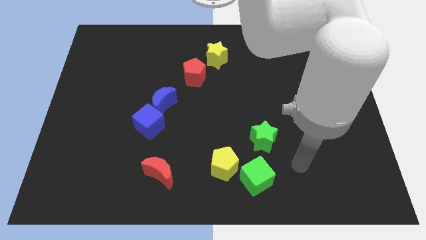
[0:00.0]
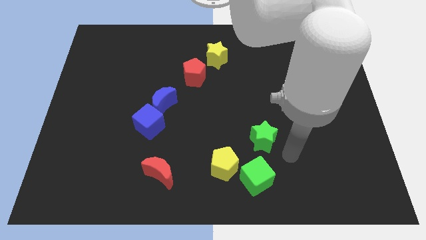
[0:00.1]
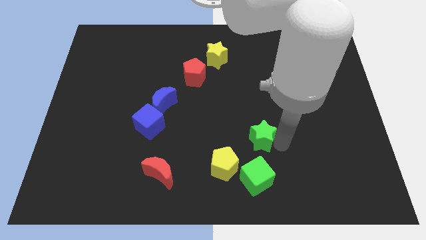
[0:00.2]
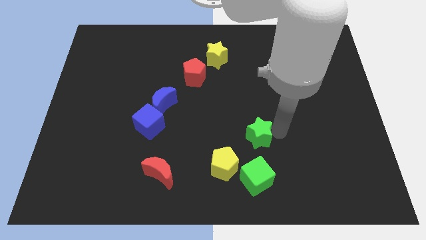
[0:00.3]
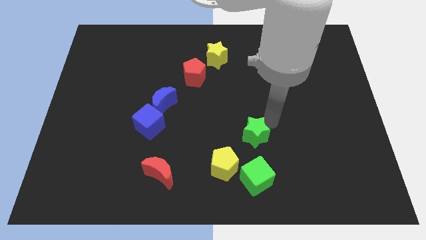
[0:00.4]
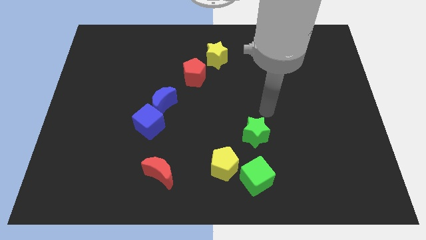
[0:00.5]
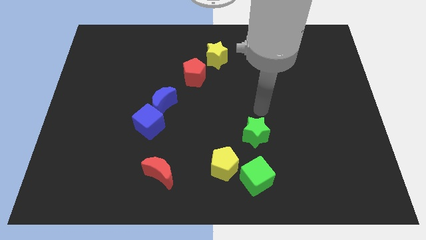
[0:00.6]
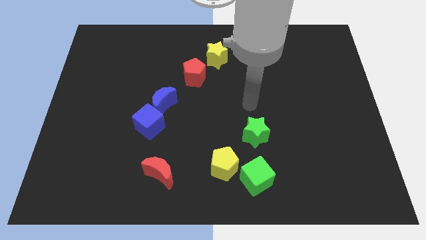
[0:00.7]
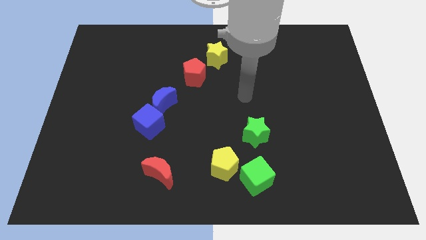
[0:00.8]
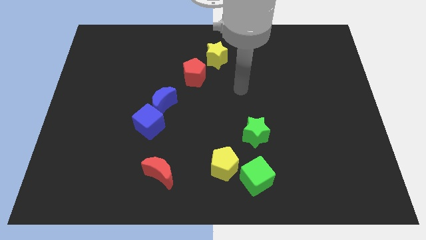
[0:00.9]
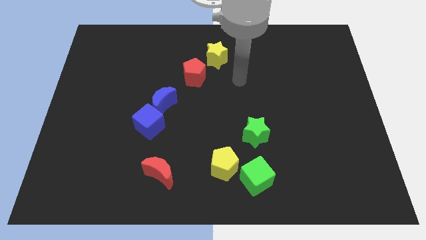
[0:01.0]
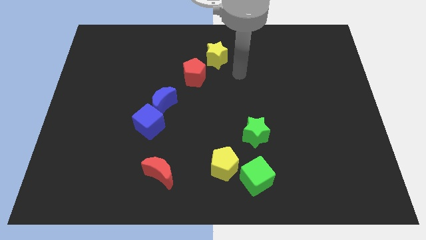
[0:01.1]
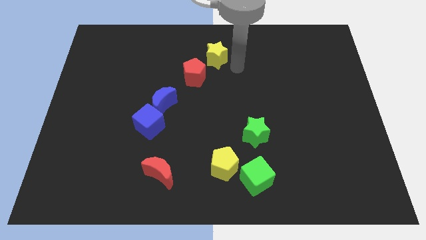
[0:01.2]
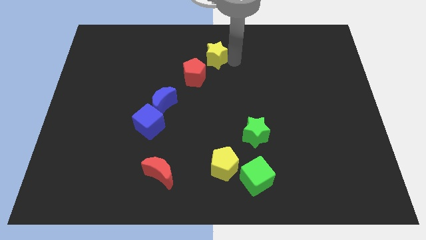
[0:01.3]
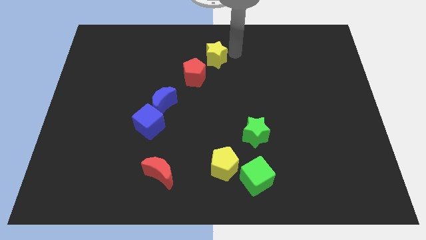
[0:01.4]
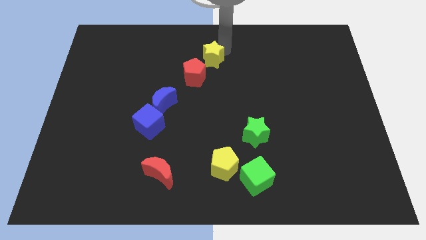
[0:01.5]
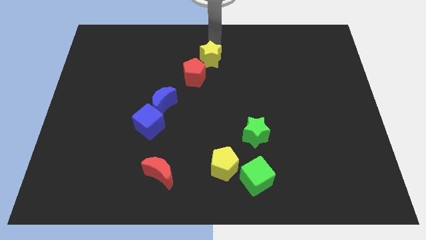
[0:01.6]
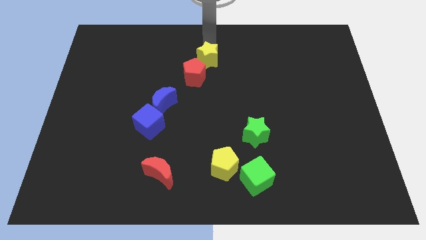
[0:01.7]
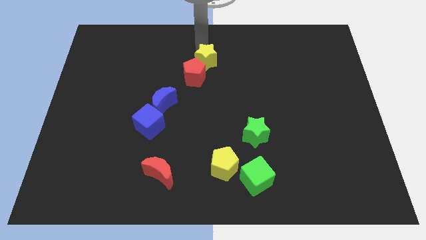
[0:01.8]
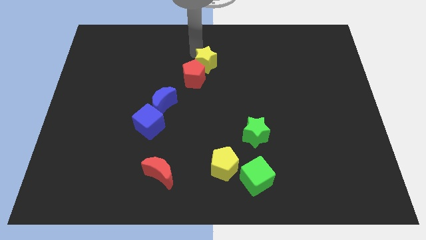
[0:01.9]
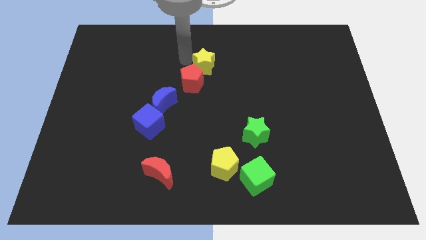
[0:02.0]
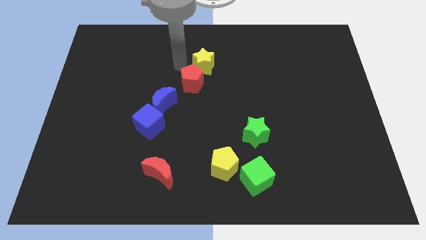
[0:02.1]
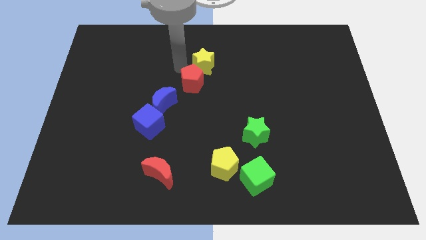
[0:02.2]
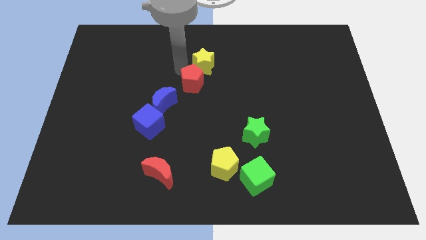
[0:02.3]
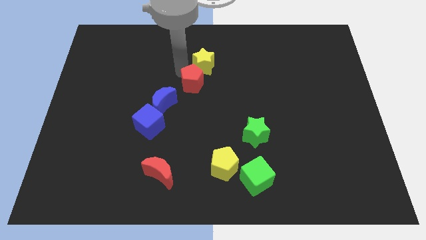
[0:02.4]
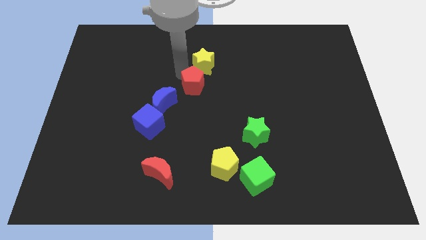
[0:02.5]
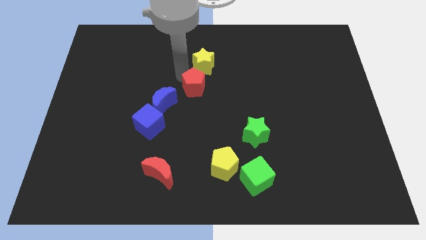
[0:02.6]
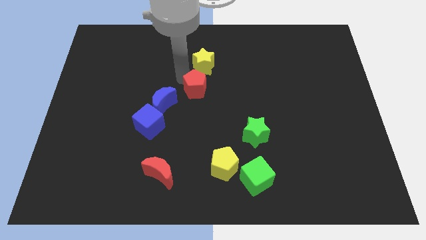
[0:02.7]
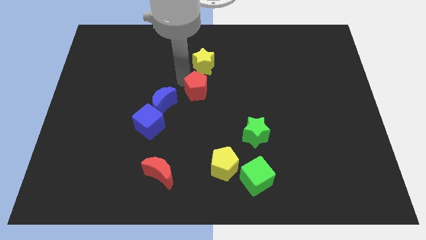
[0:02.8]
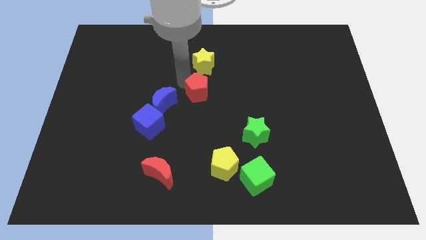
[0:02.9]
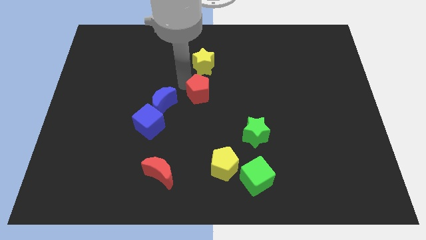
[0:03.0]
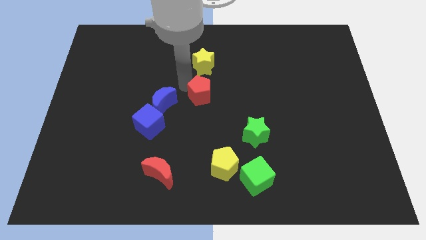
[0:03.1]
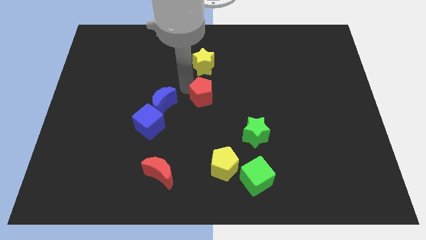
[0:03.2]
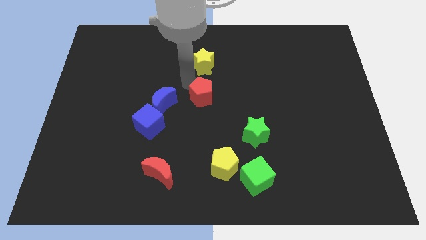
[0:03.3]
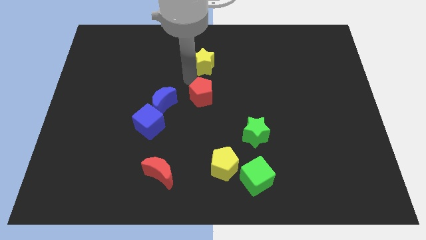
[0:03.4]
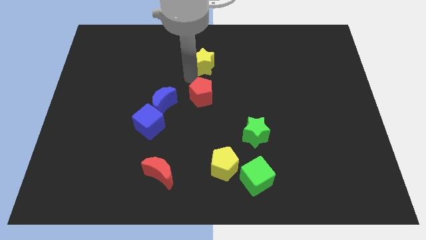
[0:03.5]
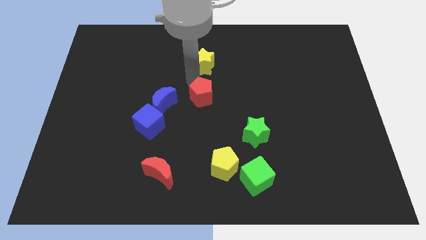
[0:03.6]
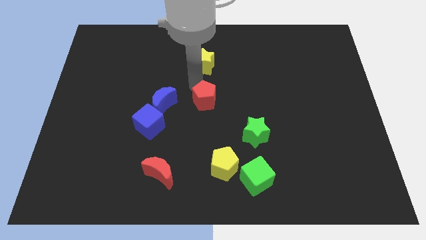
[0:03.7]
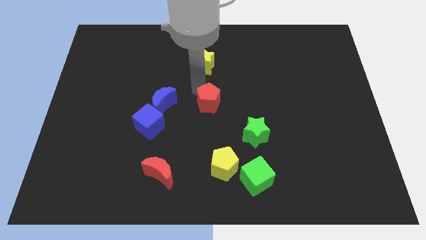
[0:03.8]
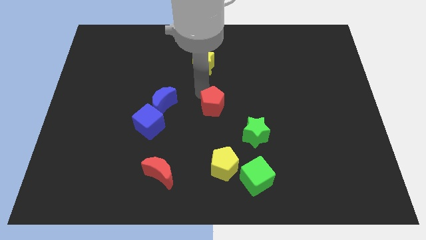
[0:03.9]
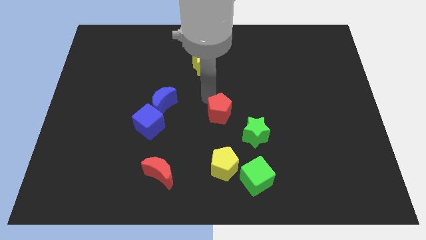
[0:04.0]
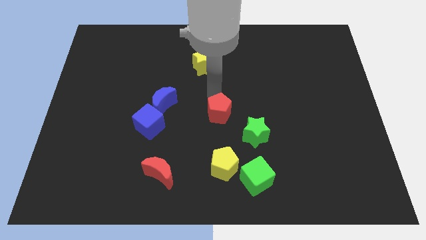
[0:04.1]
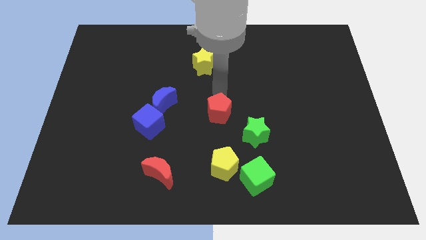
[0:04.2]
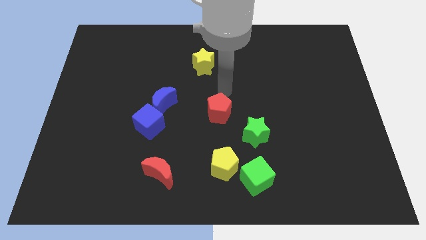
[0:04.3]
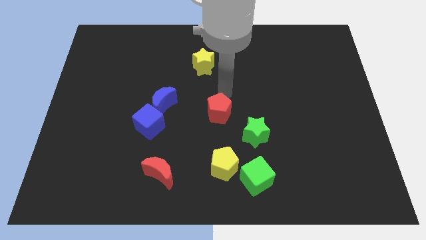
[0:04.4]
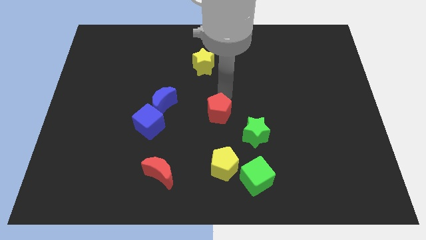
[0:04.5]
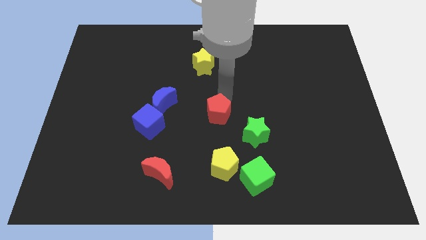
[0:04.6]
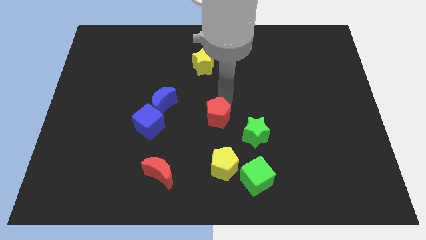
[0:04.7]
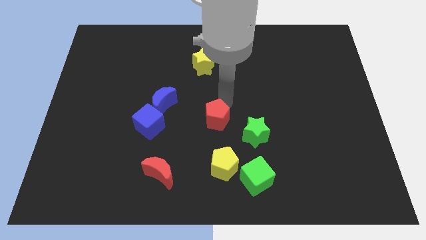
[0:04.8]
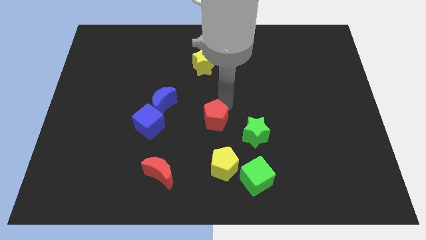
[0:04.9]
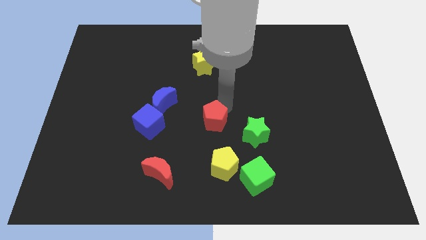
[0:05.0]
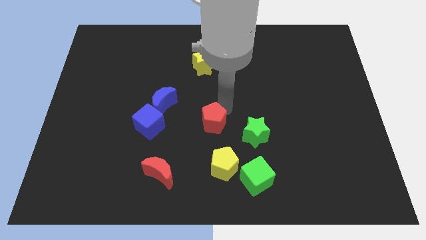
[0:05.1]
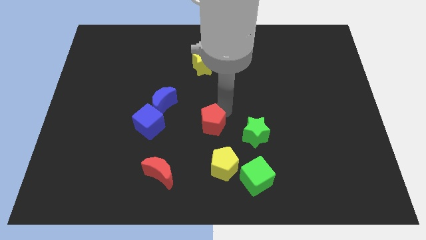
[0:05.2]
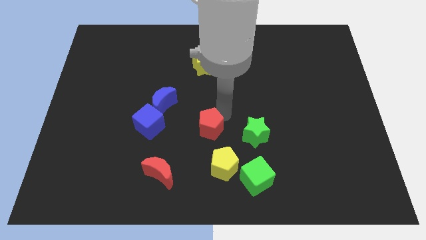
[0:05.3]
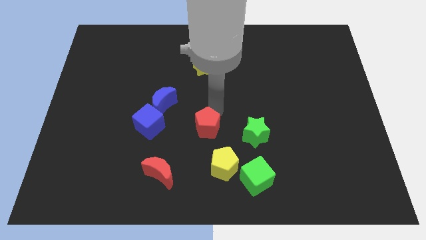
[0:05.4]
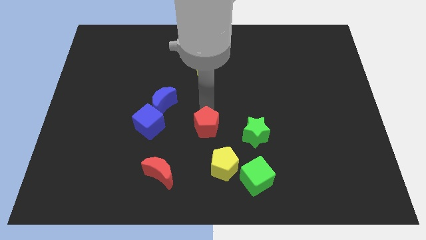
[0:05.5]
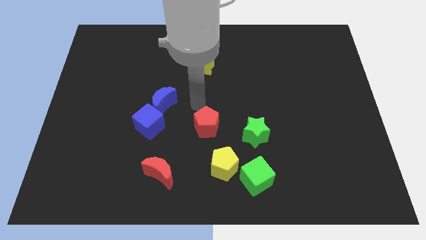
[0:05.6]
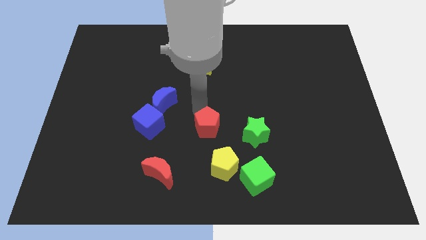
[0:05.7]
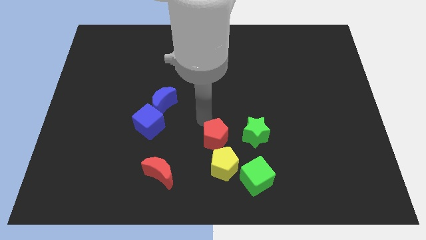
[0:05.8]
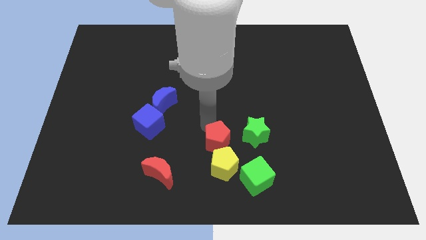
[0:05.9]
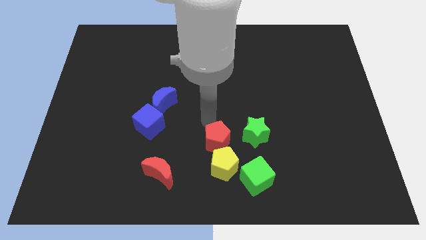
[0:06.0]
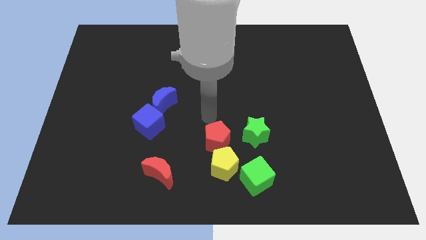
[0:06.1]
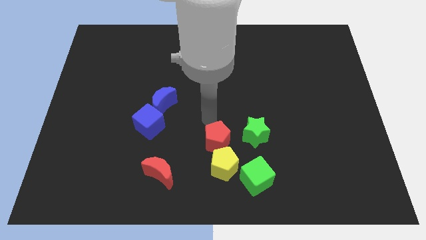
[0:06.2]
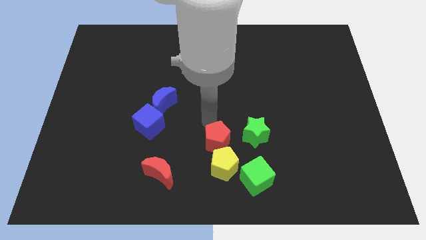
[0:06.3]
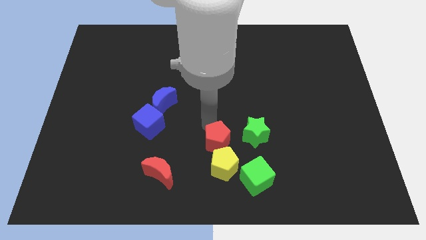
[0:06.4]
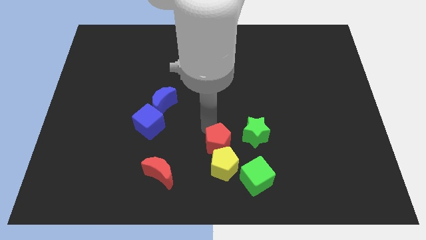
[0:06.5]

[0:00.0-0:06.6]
move the red pentagon next to the yellow pentagon

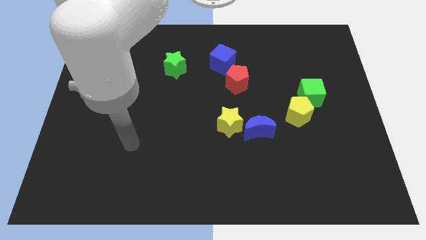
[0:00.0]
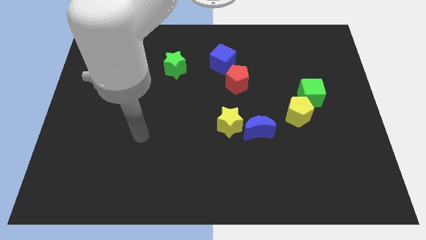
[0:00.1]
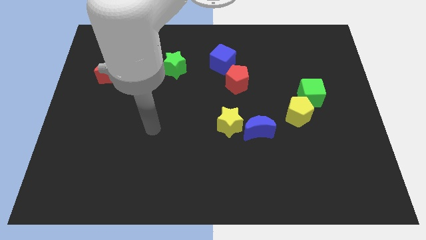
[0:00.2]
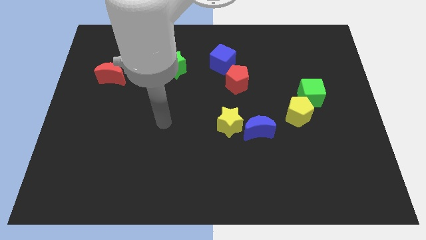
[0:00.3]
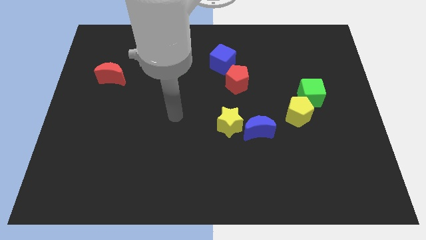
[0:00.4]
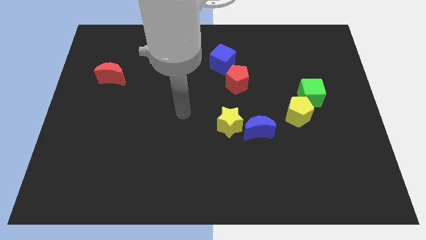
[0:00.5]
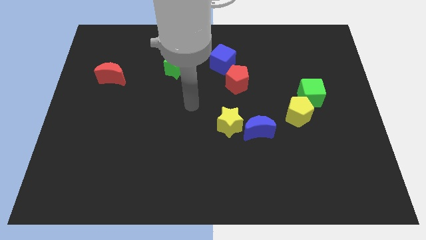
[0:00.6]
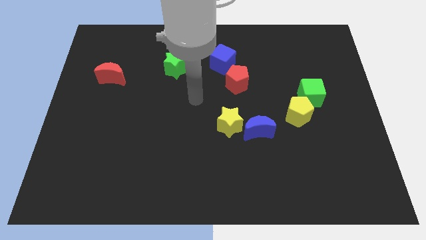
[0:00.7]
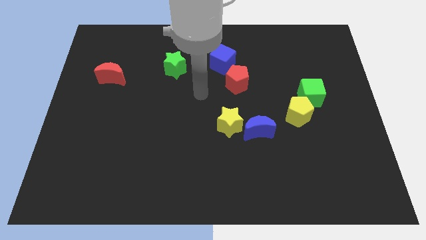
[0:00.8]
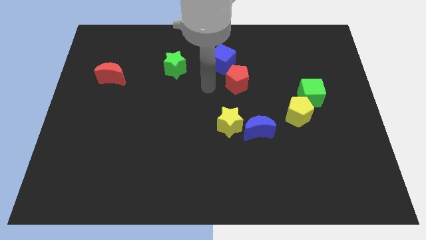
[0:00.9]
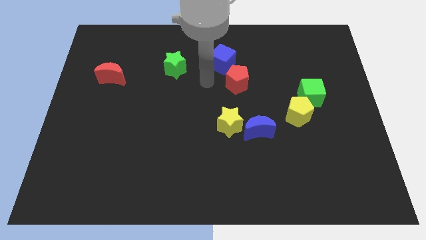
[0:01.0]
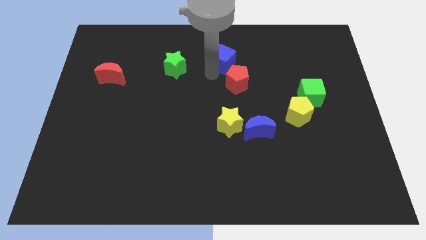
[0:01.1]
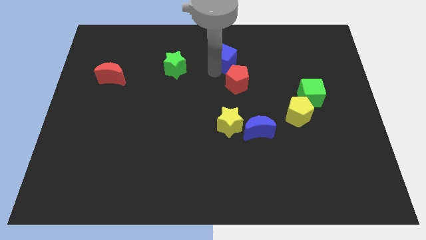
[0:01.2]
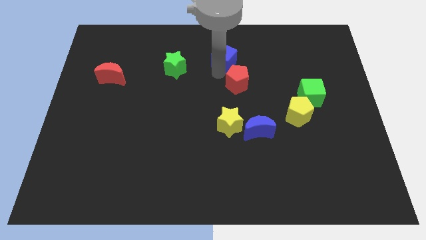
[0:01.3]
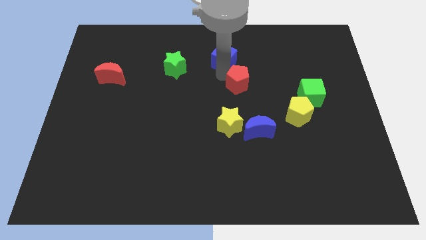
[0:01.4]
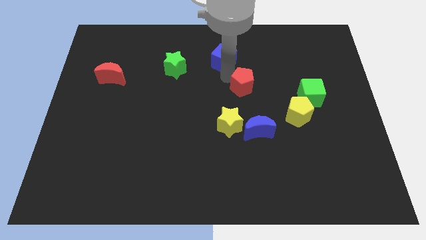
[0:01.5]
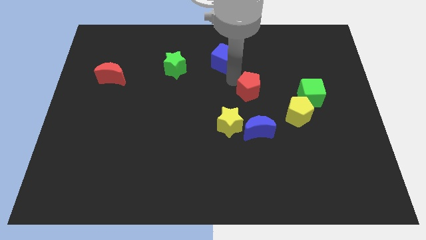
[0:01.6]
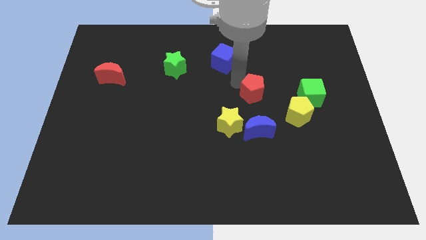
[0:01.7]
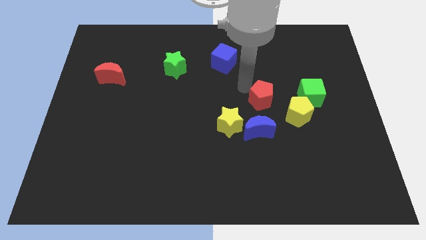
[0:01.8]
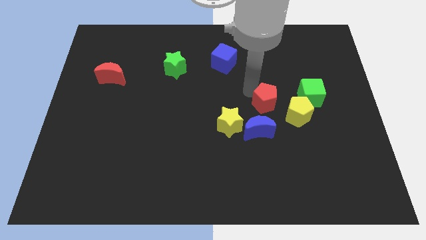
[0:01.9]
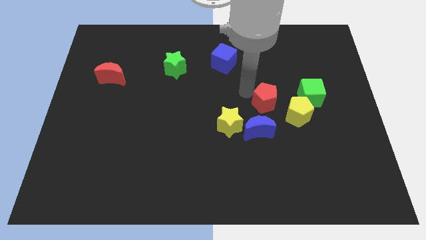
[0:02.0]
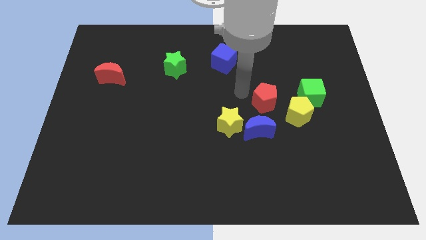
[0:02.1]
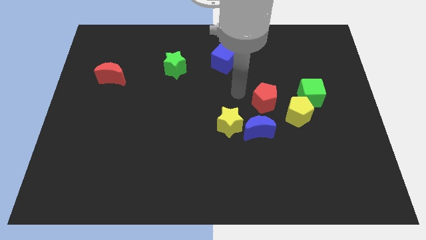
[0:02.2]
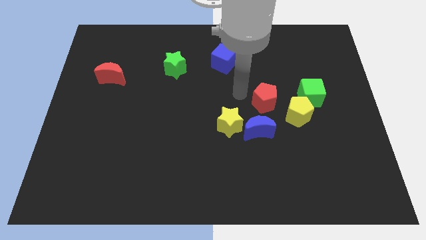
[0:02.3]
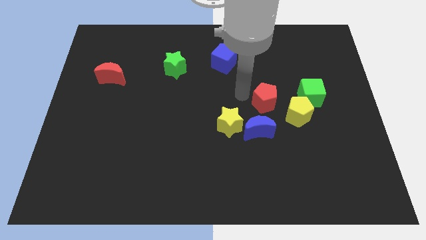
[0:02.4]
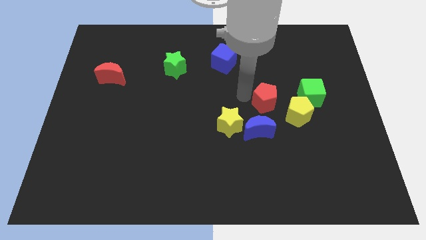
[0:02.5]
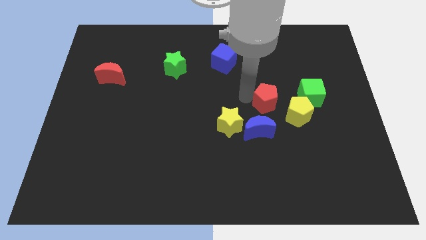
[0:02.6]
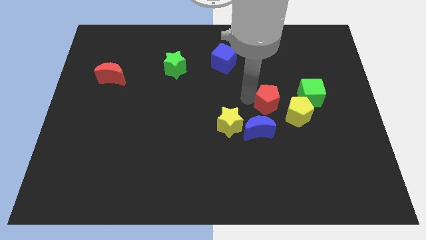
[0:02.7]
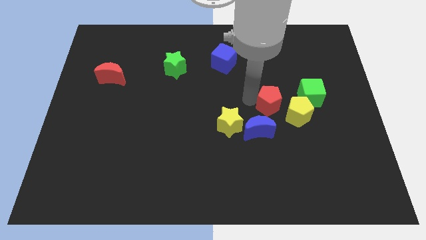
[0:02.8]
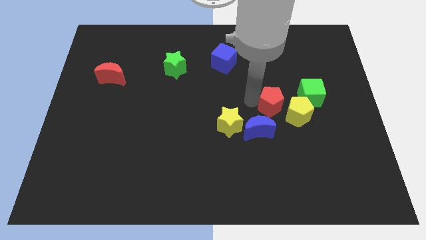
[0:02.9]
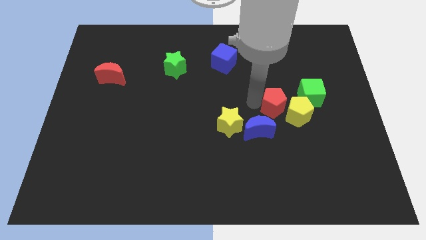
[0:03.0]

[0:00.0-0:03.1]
move the red pentagon towards the yellow pentagon
